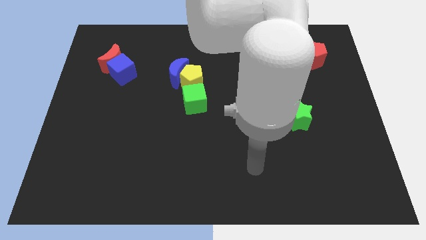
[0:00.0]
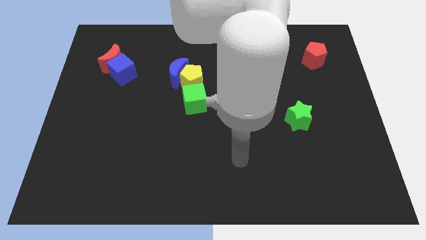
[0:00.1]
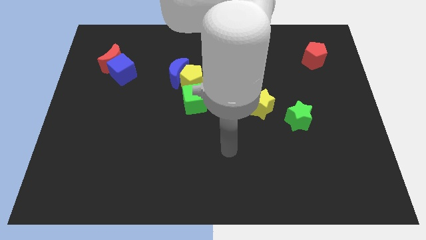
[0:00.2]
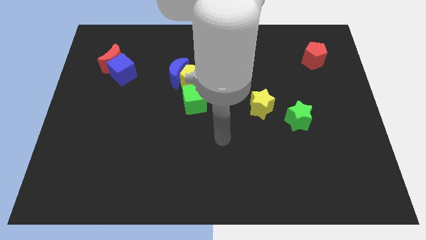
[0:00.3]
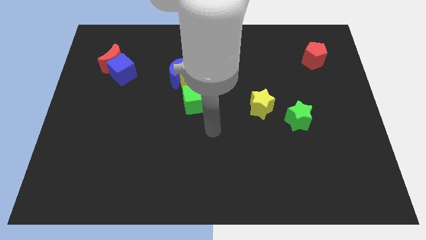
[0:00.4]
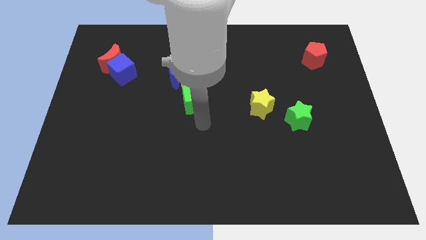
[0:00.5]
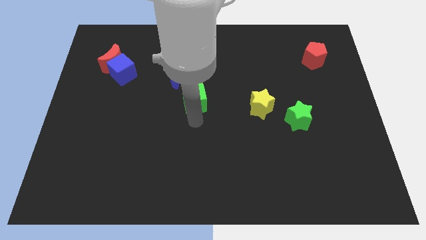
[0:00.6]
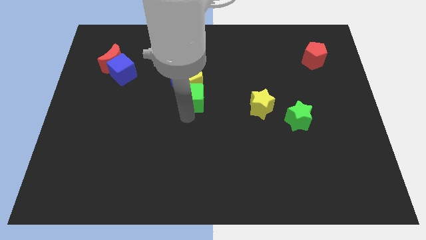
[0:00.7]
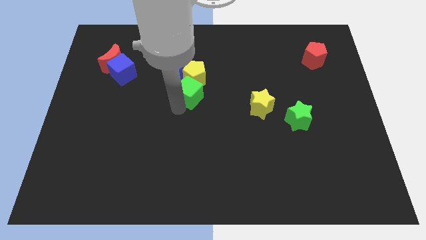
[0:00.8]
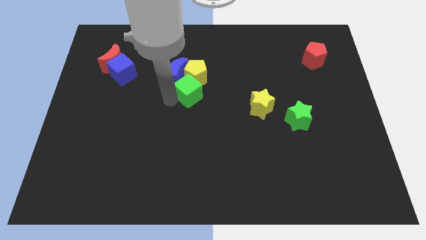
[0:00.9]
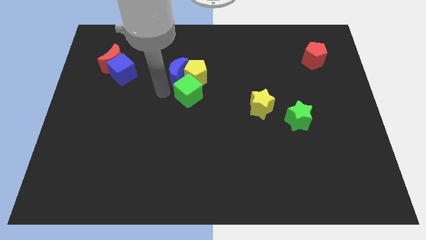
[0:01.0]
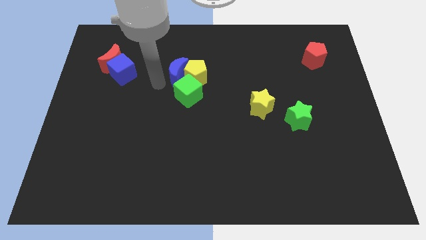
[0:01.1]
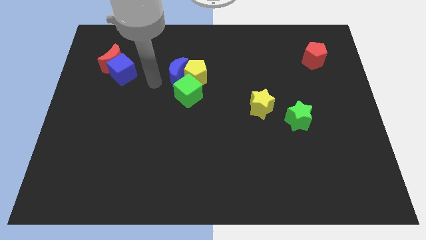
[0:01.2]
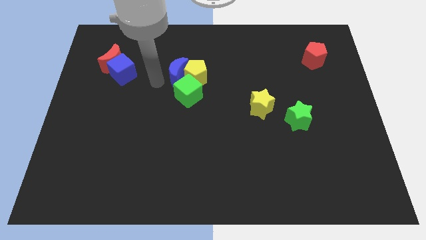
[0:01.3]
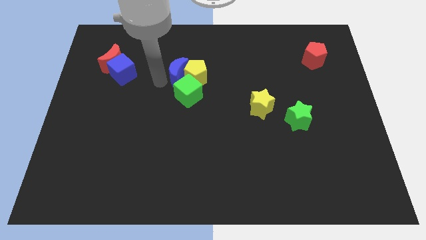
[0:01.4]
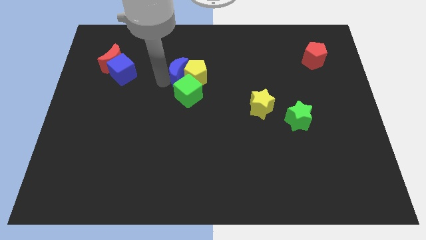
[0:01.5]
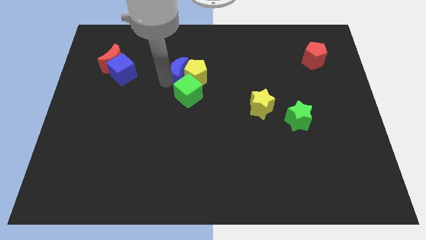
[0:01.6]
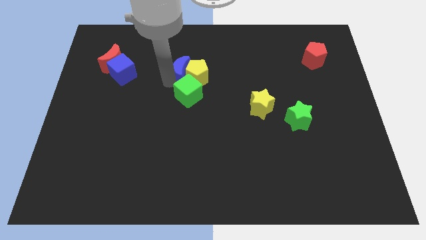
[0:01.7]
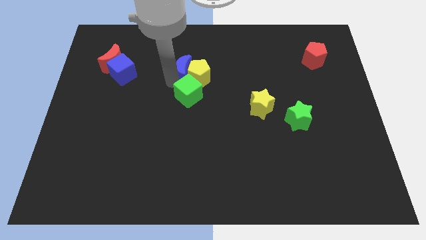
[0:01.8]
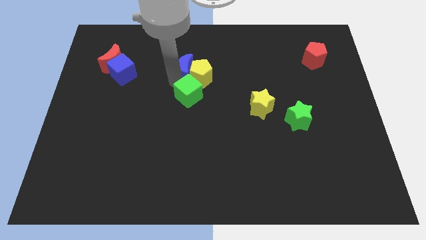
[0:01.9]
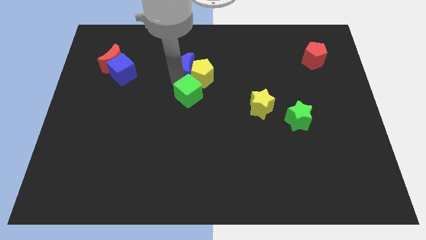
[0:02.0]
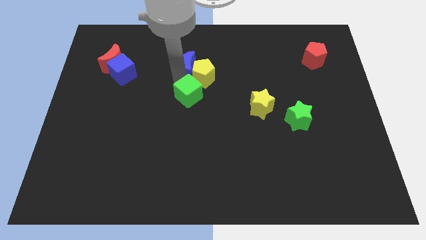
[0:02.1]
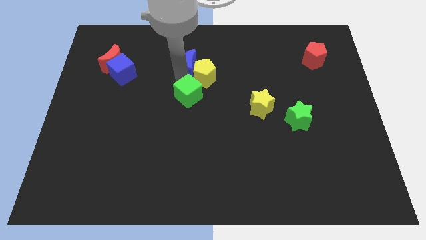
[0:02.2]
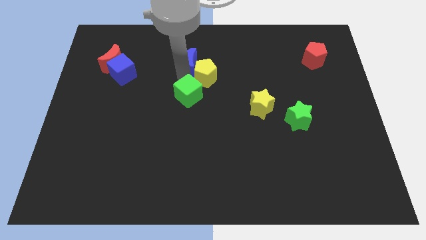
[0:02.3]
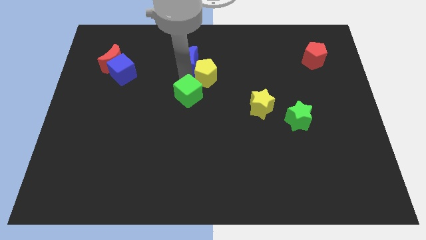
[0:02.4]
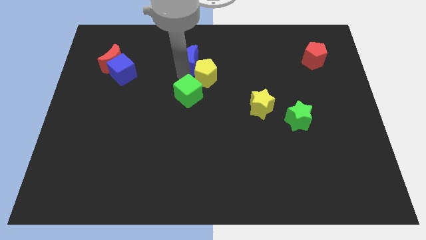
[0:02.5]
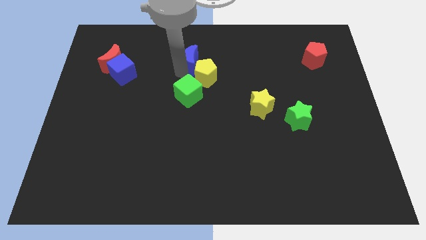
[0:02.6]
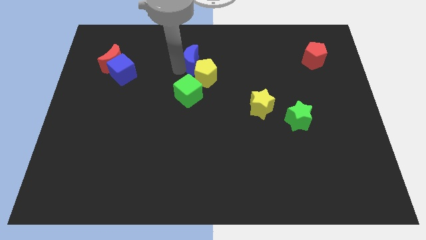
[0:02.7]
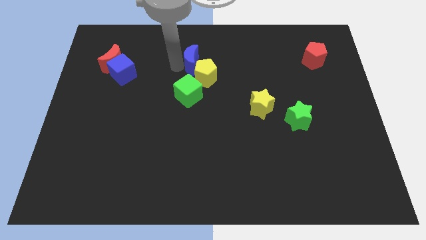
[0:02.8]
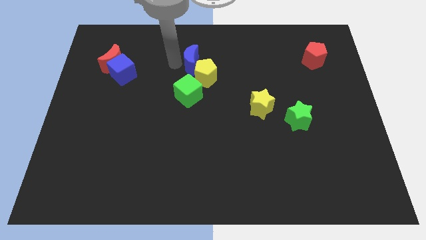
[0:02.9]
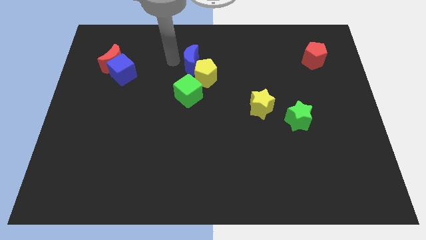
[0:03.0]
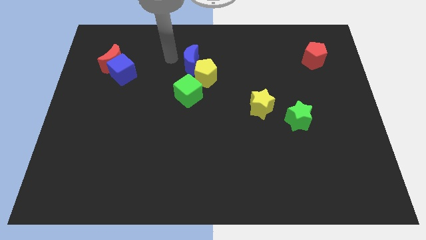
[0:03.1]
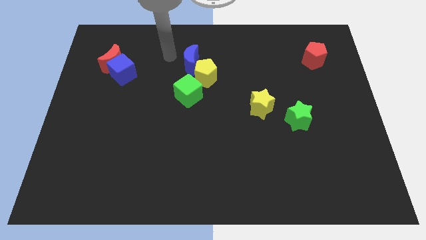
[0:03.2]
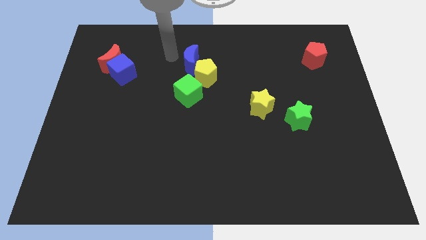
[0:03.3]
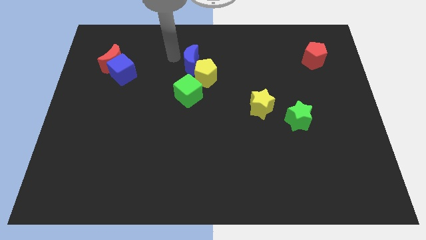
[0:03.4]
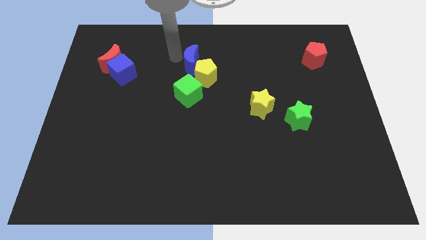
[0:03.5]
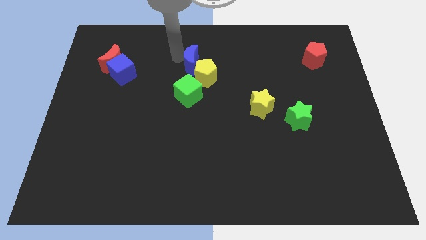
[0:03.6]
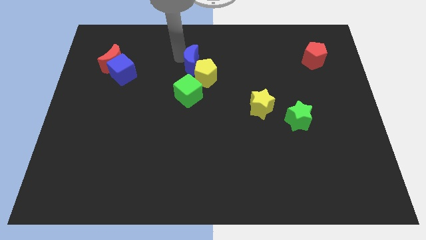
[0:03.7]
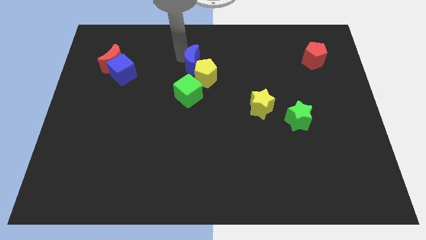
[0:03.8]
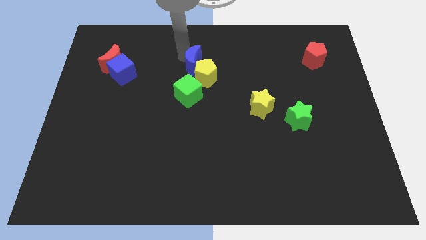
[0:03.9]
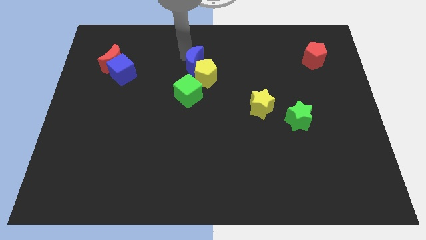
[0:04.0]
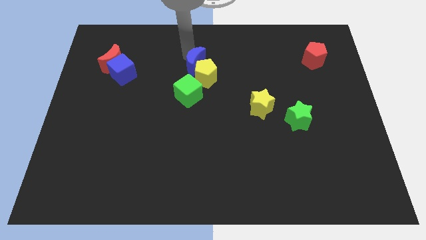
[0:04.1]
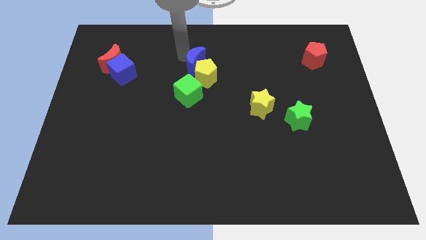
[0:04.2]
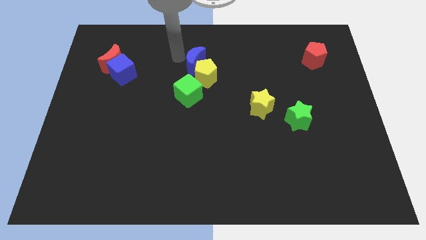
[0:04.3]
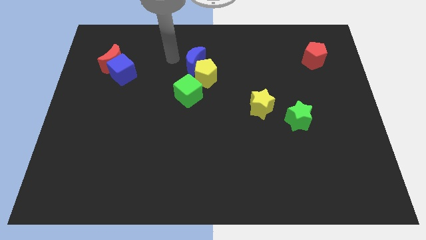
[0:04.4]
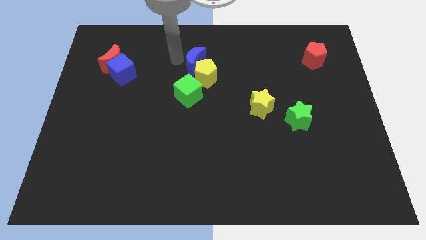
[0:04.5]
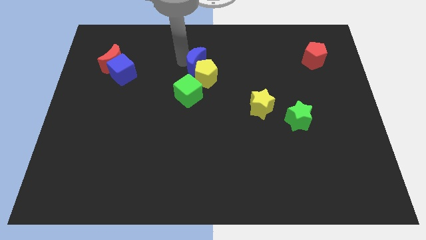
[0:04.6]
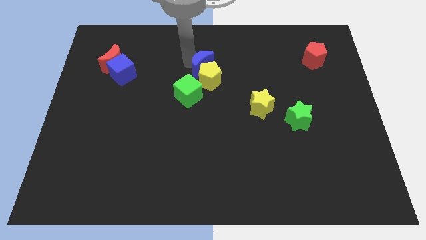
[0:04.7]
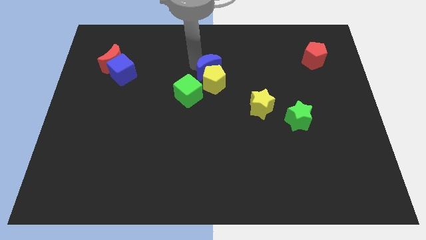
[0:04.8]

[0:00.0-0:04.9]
slide the blue moon somewhat right

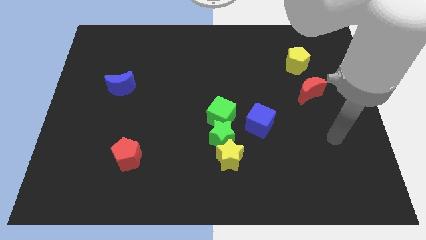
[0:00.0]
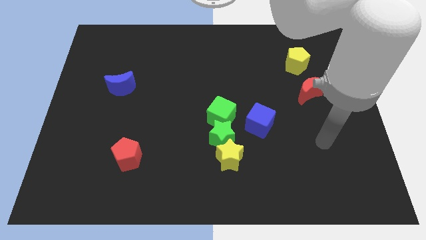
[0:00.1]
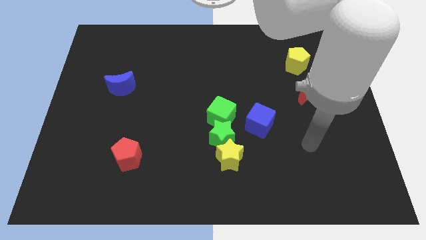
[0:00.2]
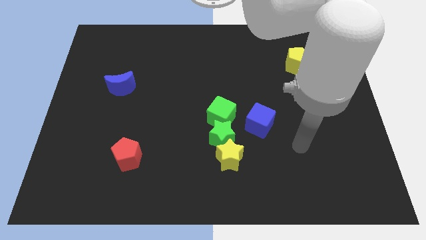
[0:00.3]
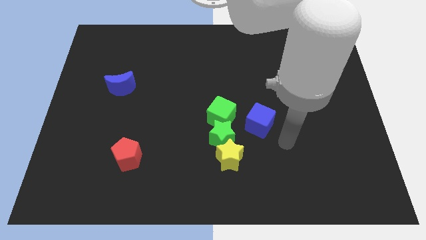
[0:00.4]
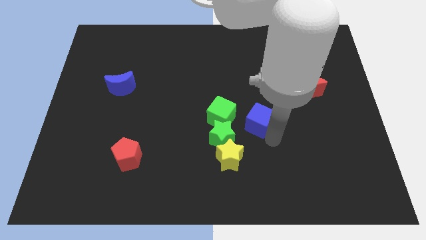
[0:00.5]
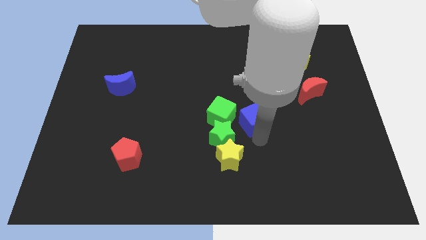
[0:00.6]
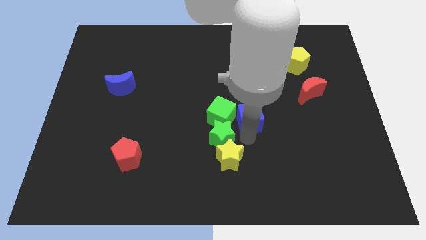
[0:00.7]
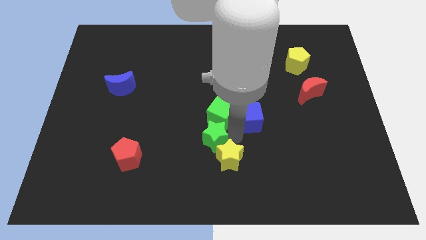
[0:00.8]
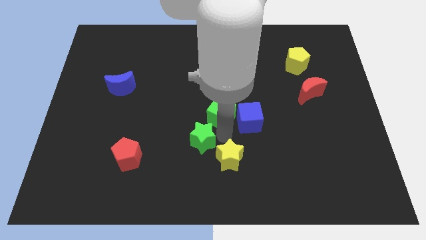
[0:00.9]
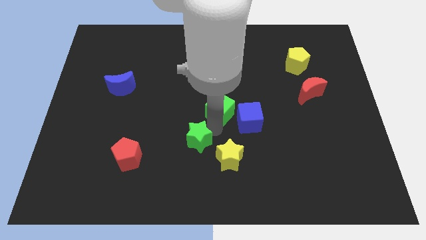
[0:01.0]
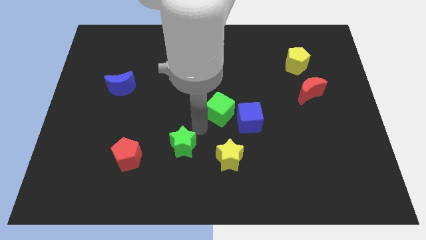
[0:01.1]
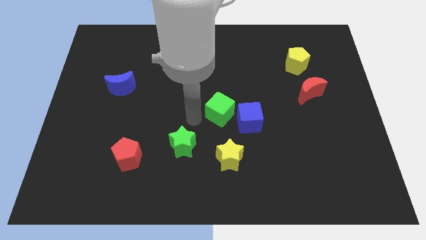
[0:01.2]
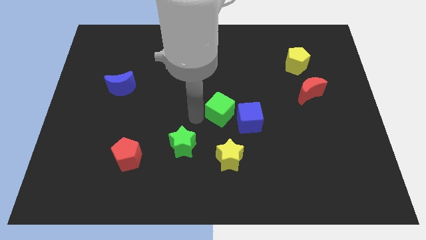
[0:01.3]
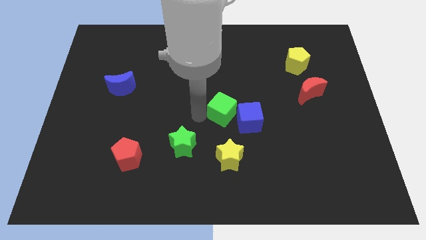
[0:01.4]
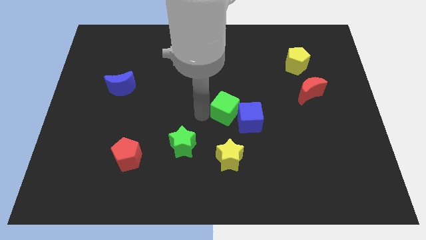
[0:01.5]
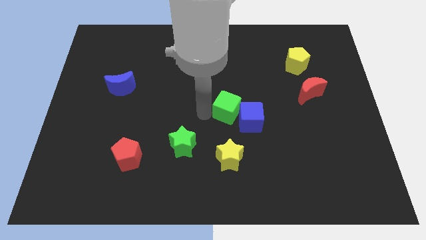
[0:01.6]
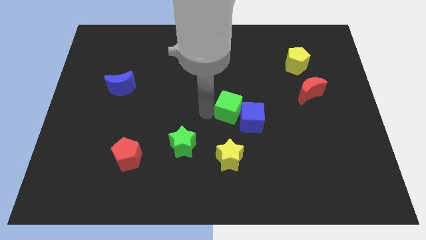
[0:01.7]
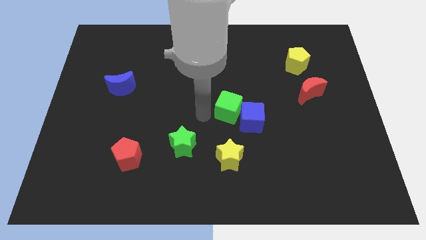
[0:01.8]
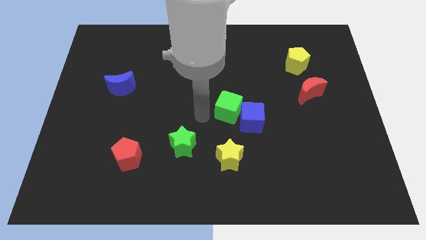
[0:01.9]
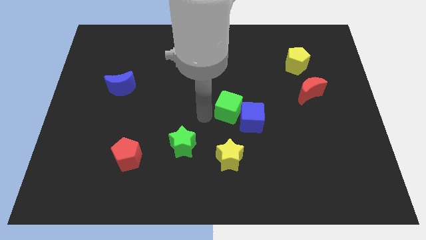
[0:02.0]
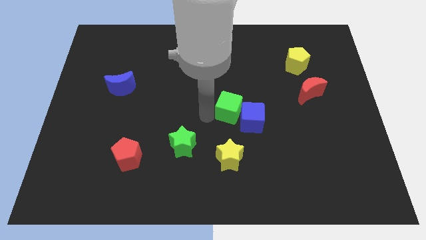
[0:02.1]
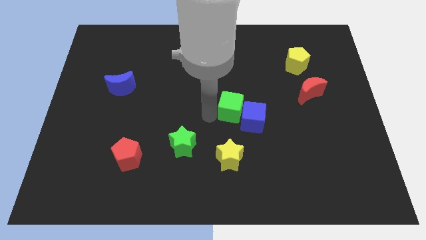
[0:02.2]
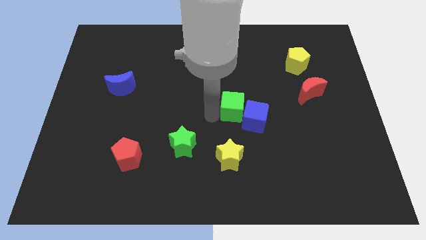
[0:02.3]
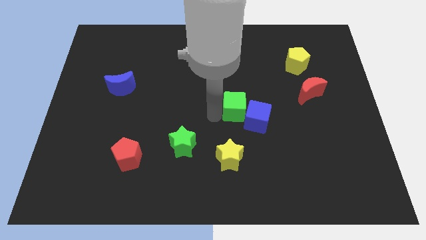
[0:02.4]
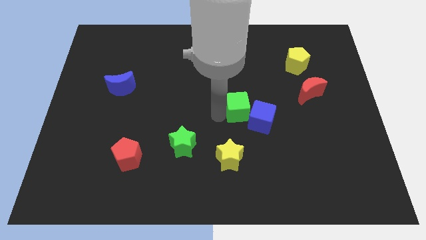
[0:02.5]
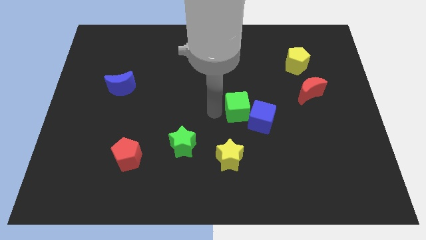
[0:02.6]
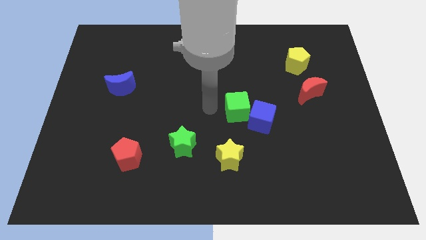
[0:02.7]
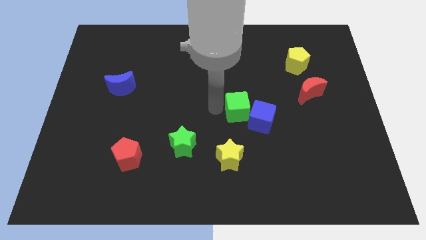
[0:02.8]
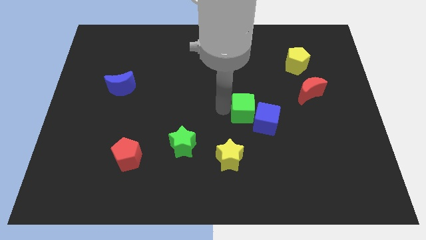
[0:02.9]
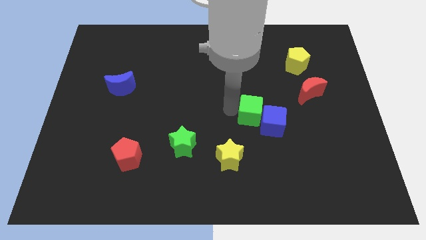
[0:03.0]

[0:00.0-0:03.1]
slightly push the green cube to the right
